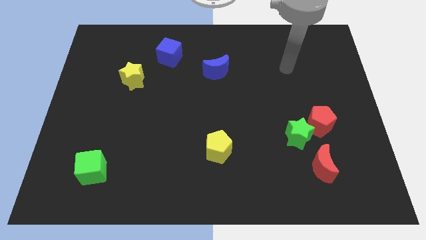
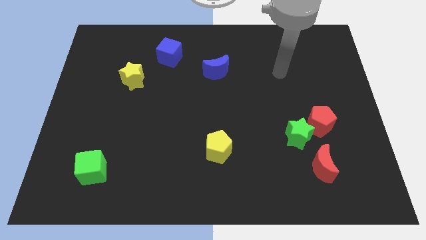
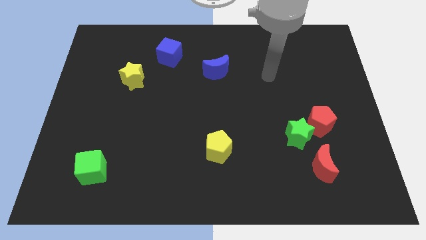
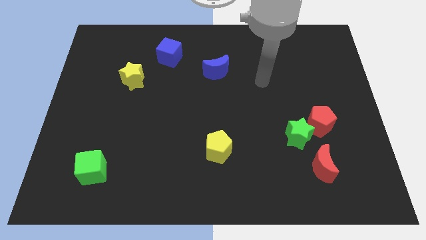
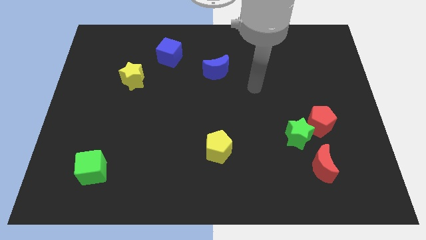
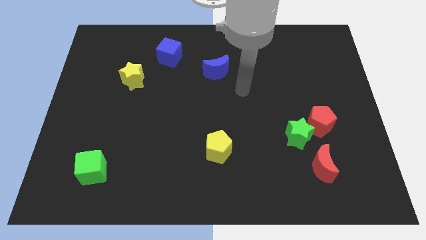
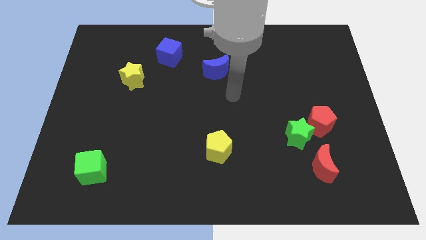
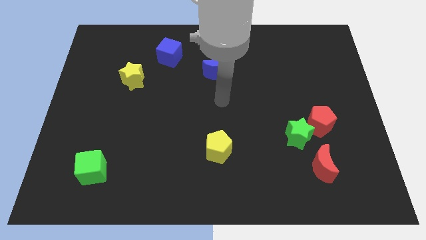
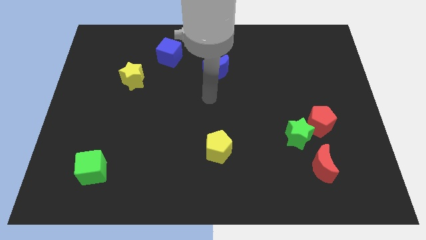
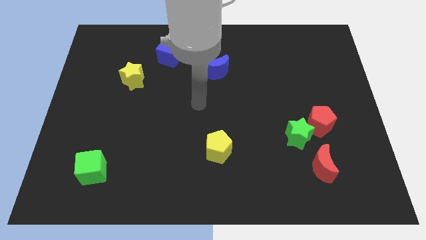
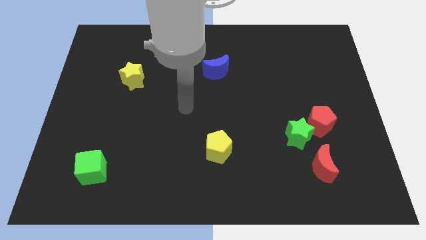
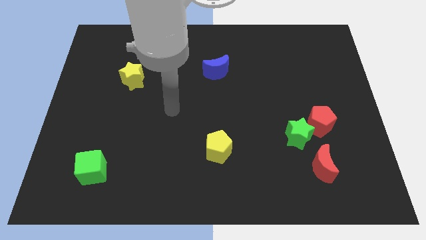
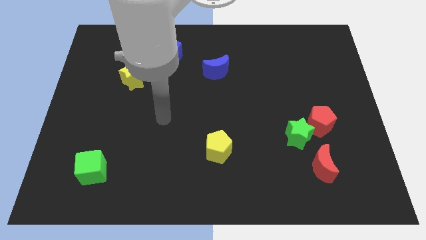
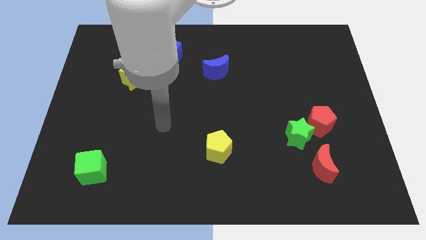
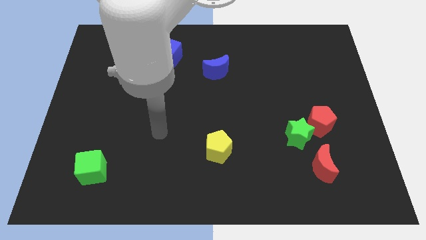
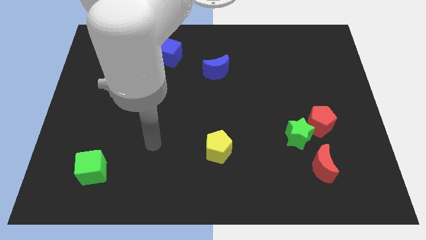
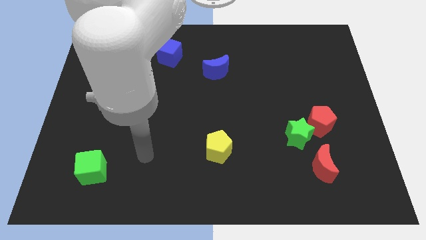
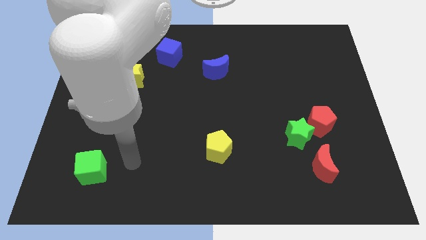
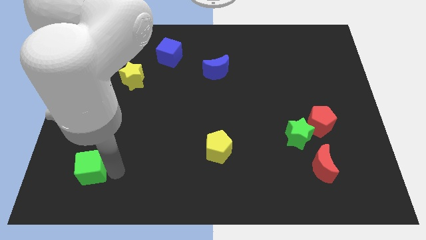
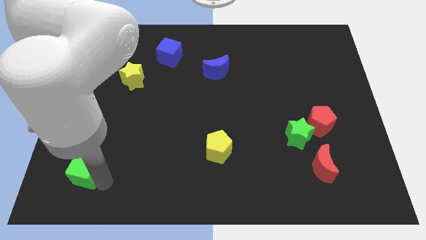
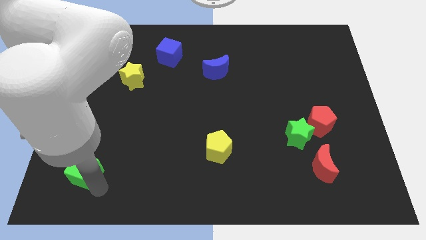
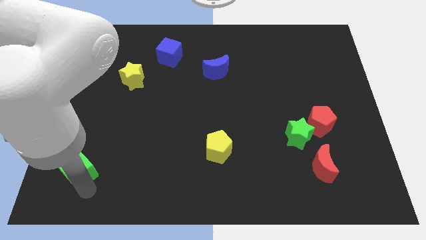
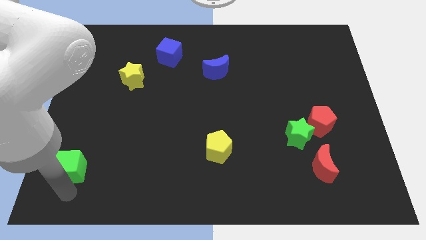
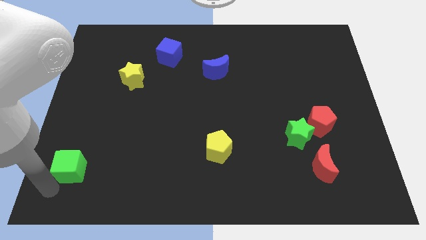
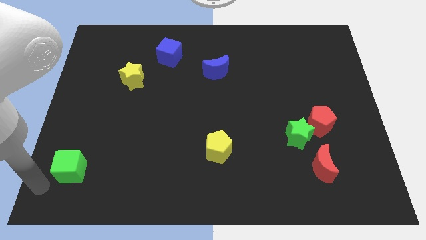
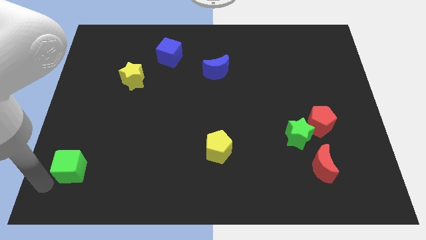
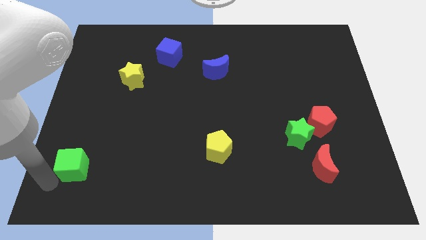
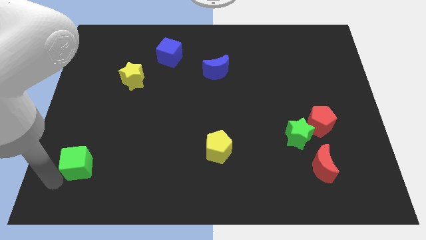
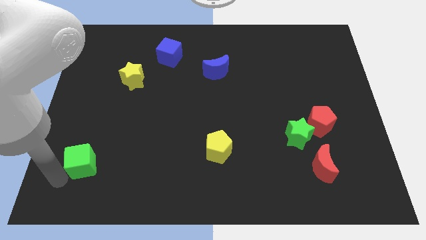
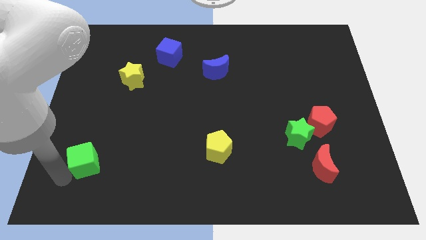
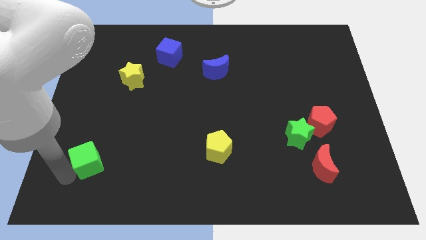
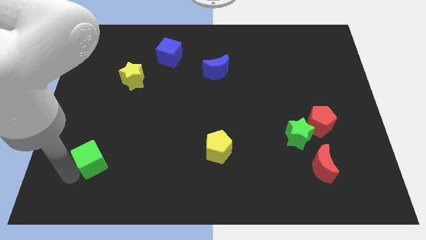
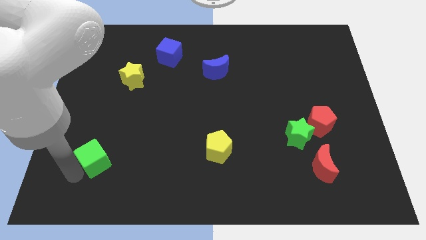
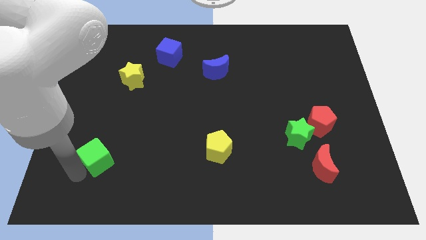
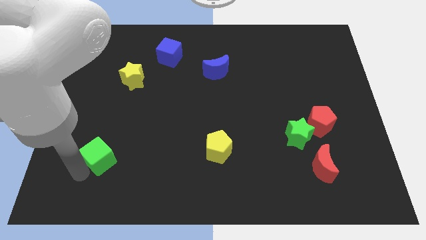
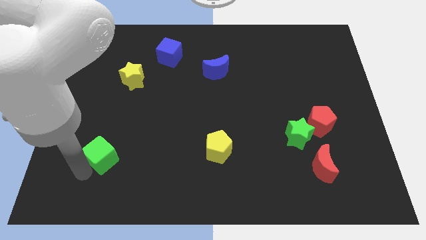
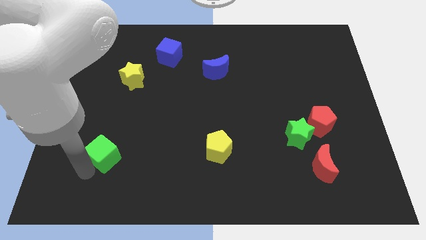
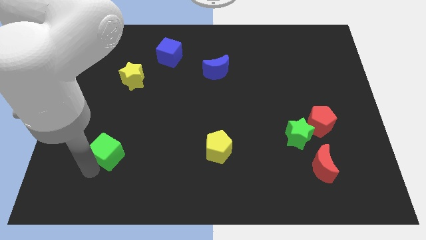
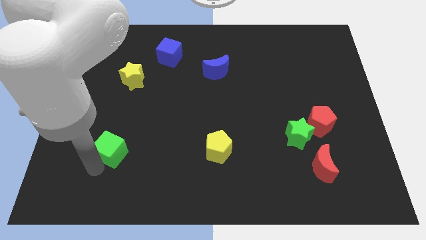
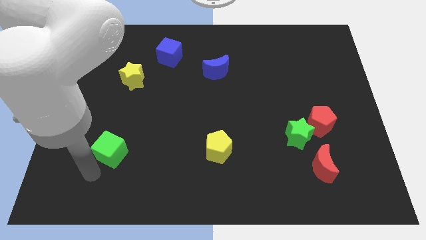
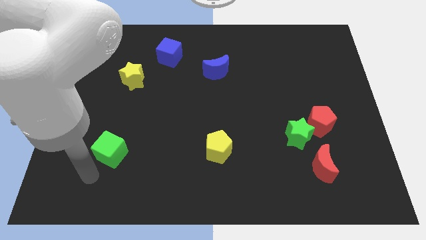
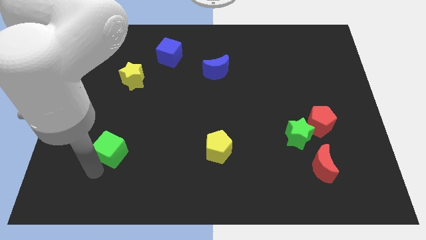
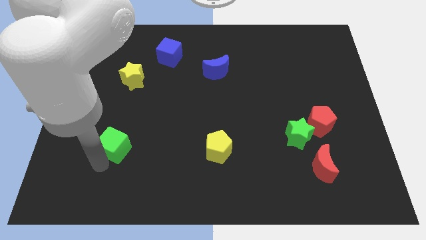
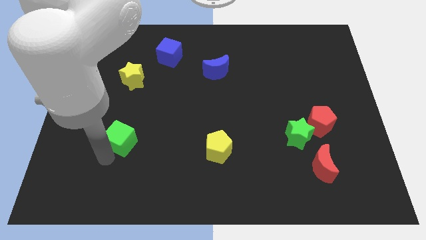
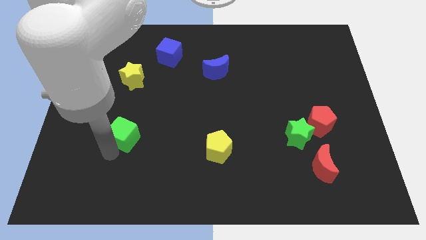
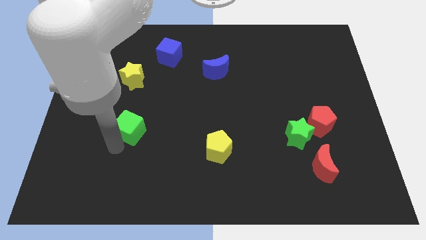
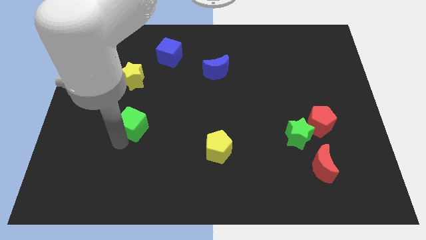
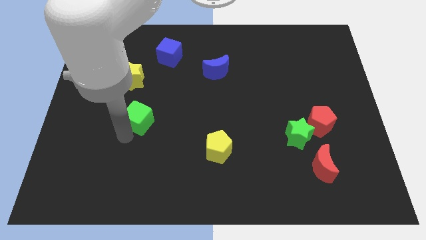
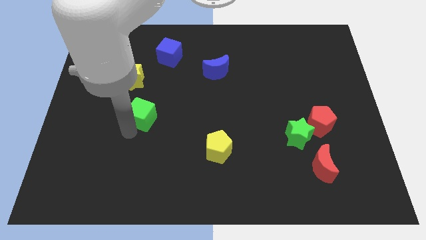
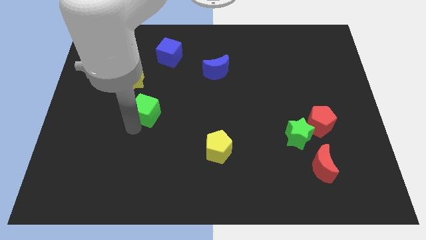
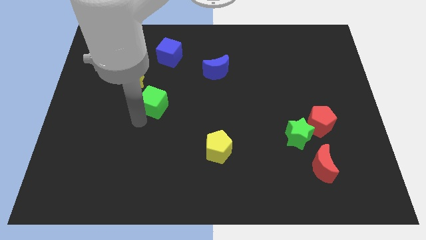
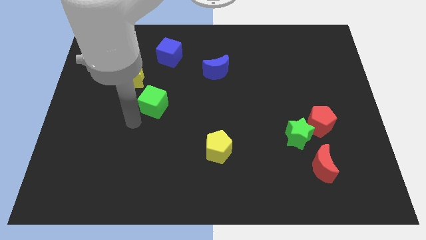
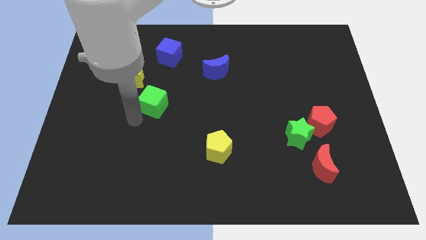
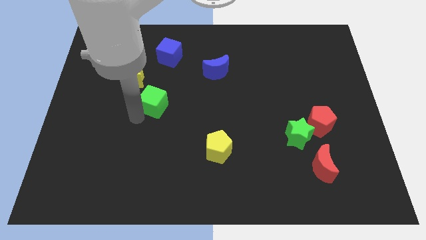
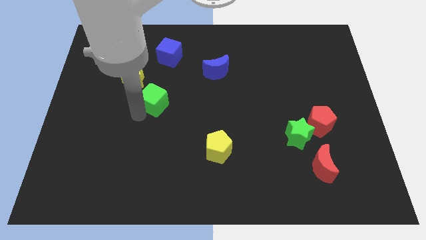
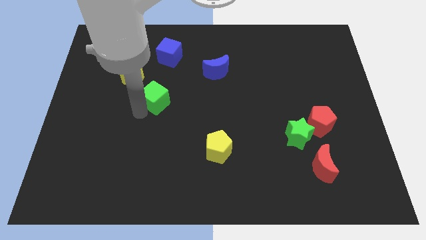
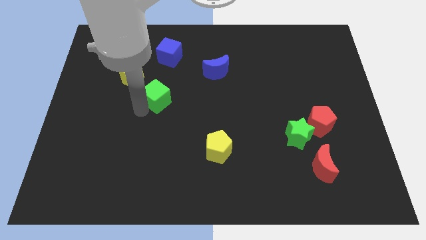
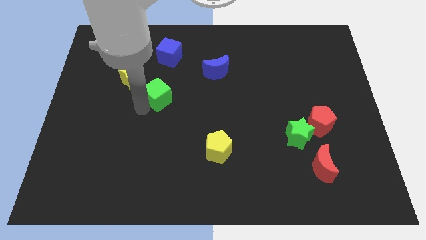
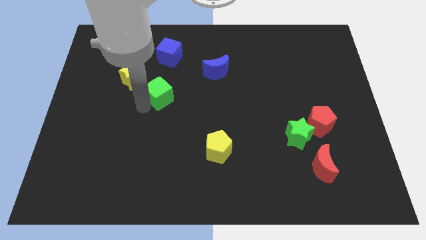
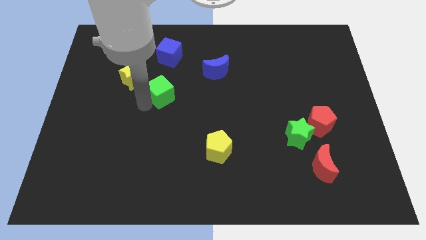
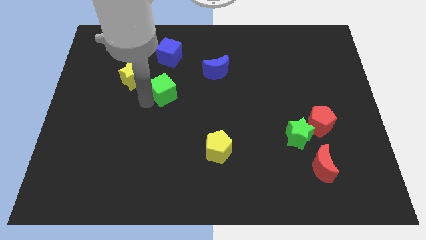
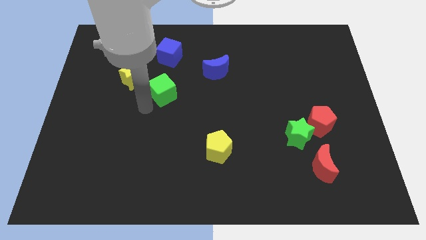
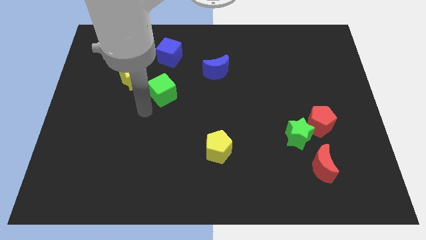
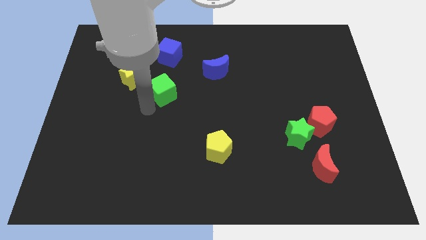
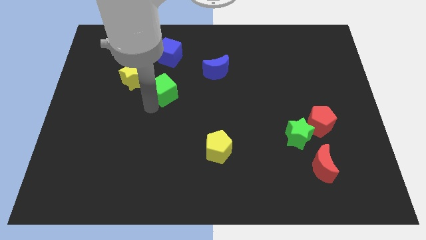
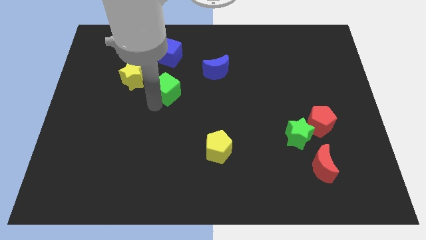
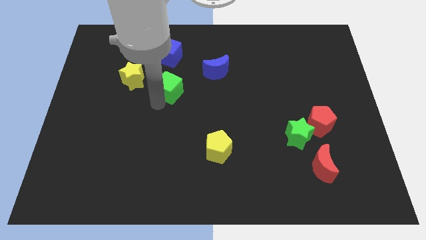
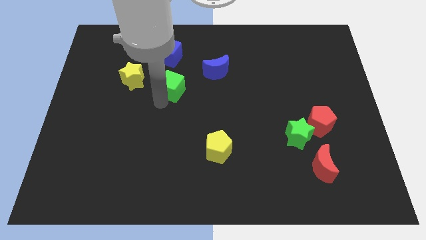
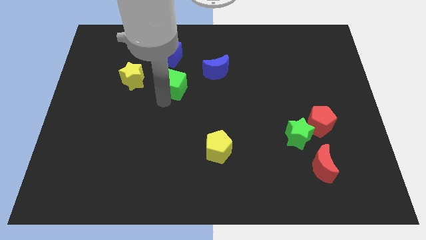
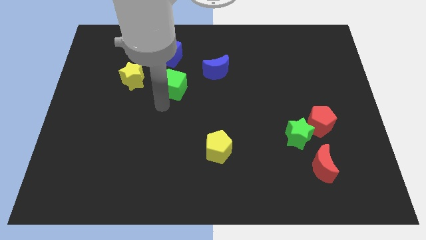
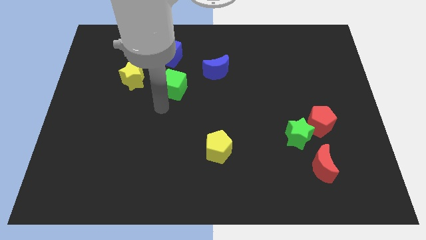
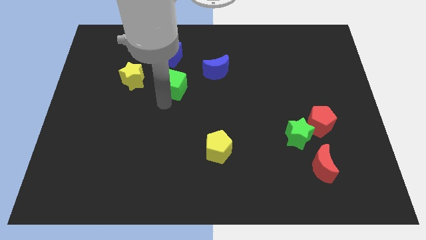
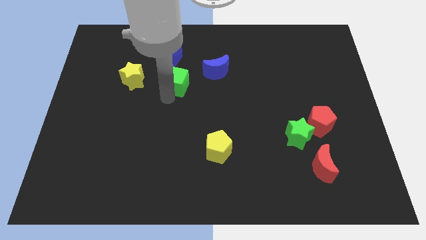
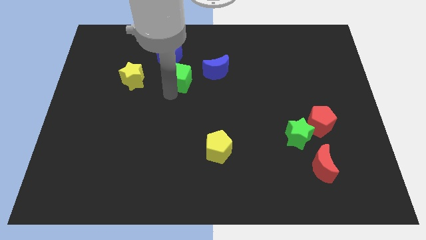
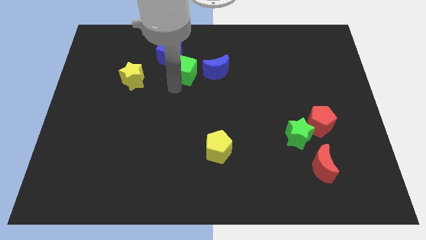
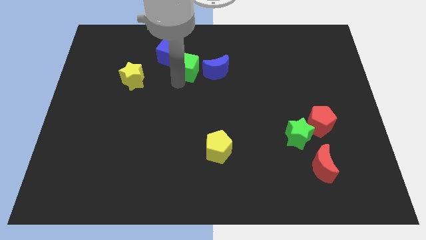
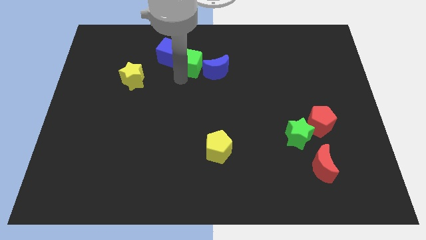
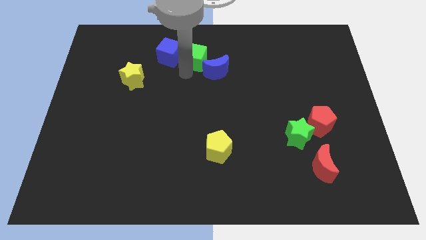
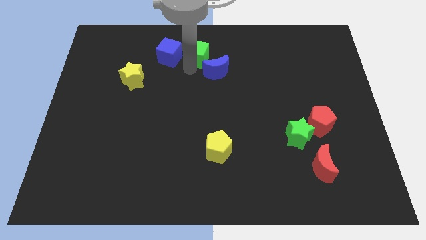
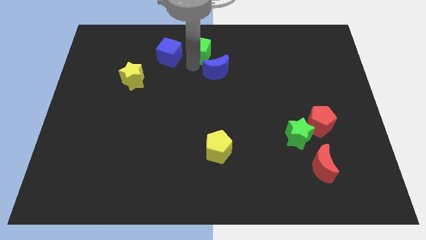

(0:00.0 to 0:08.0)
put the green cube to the top side
